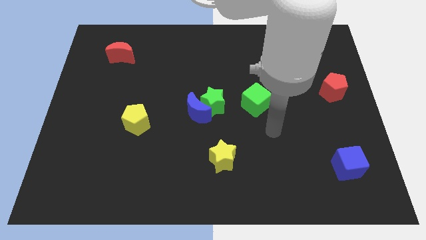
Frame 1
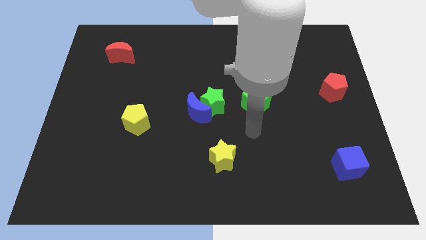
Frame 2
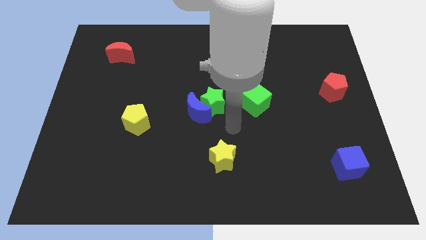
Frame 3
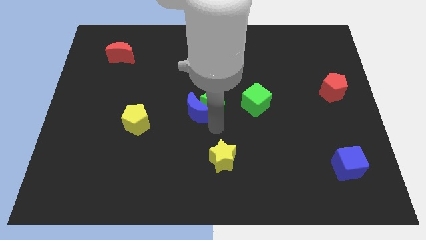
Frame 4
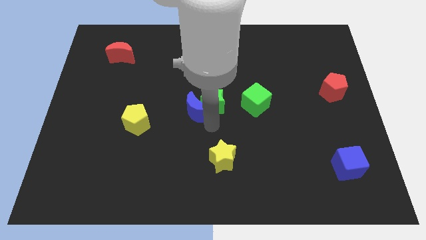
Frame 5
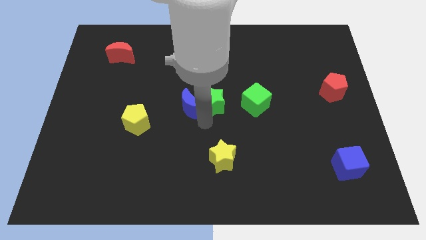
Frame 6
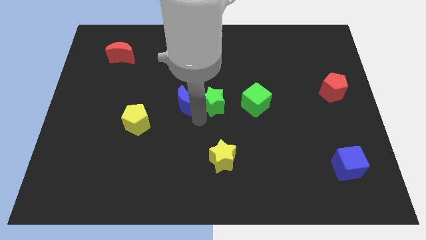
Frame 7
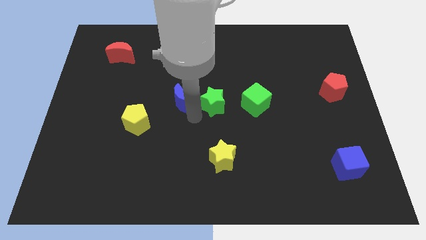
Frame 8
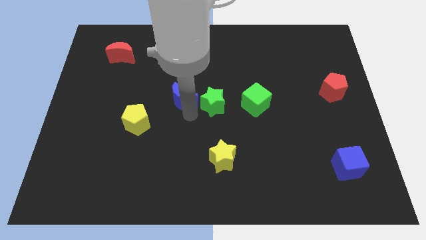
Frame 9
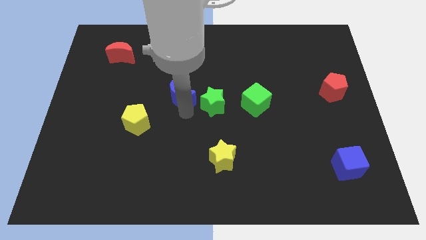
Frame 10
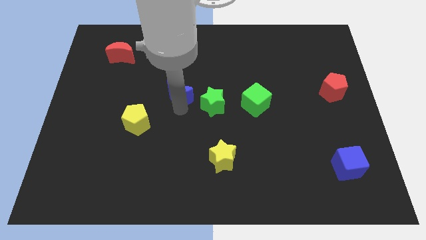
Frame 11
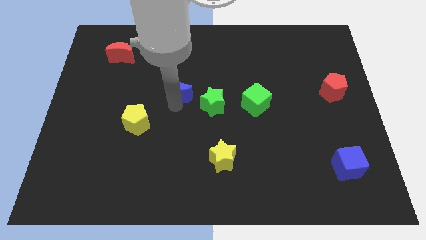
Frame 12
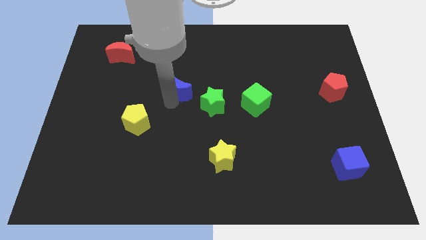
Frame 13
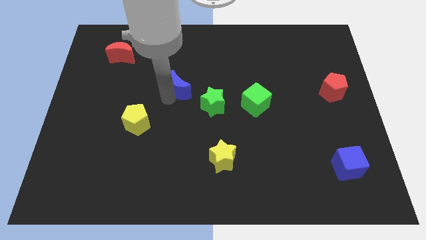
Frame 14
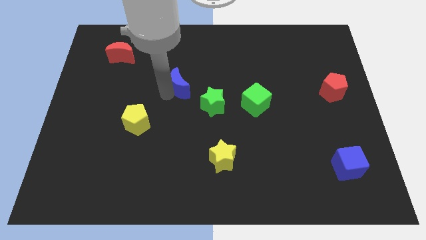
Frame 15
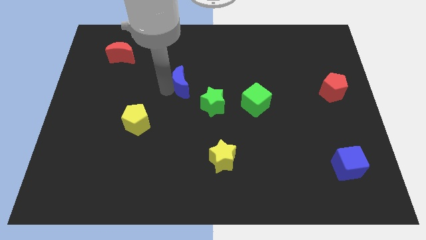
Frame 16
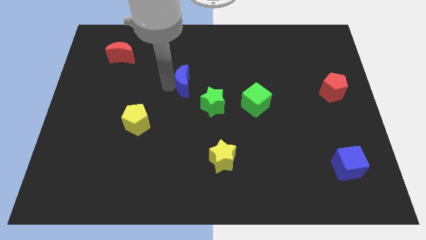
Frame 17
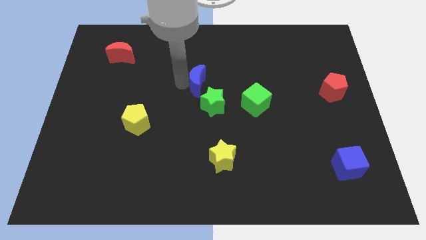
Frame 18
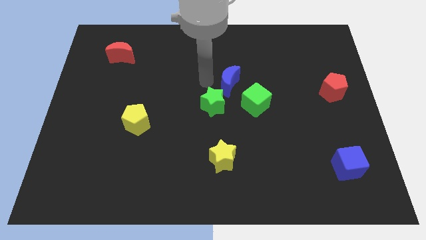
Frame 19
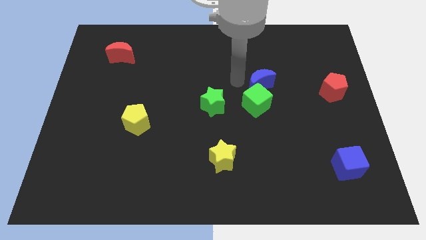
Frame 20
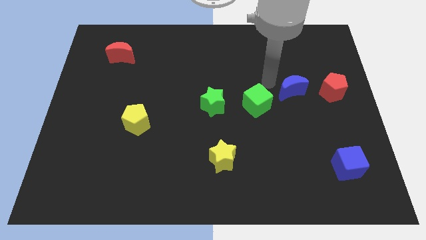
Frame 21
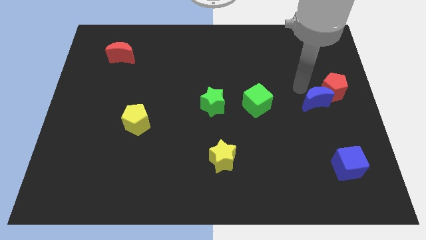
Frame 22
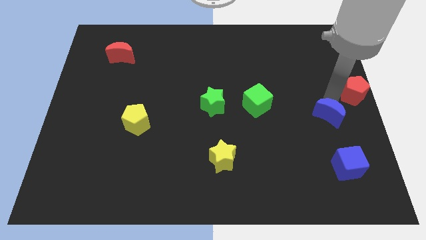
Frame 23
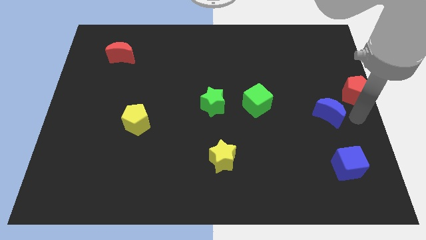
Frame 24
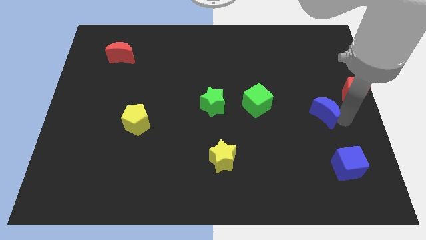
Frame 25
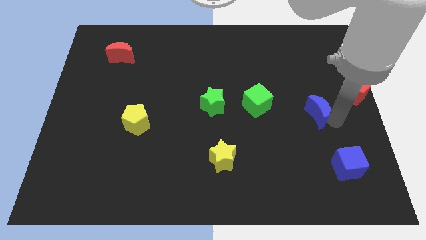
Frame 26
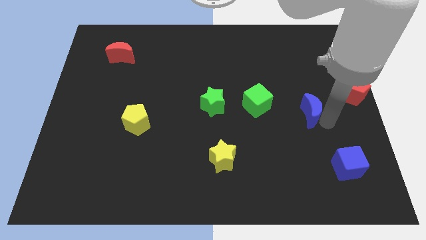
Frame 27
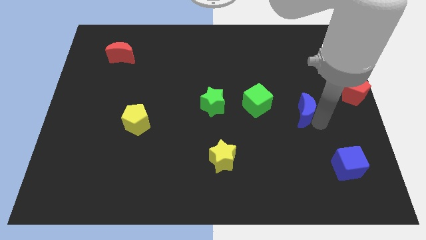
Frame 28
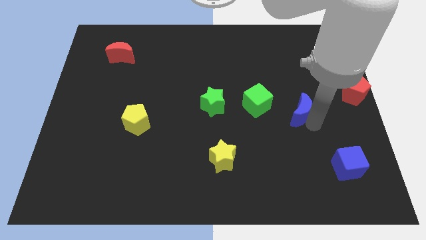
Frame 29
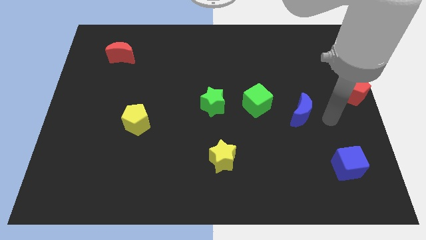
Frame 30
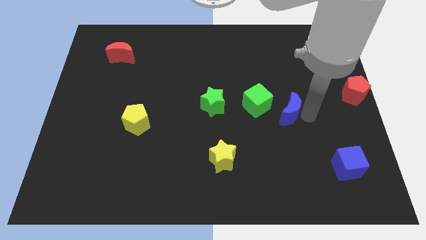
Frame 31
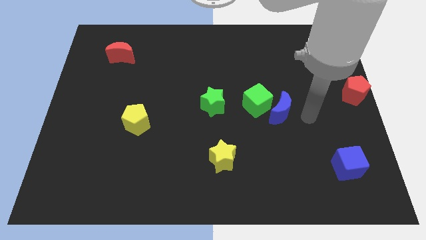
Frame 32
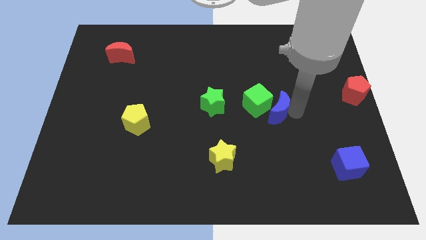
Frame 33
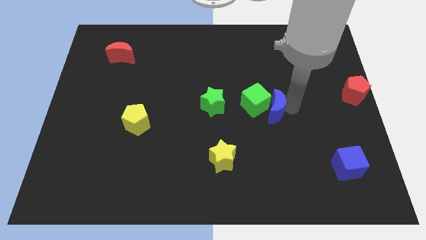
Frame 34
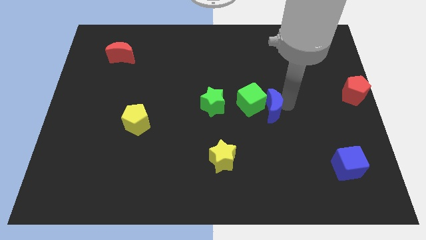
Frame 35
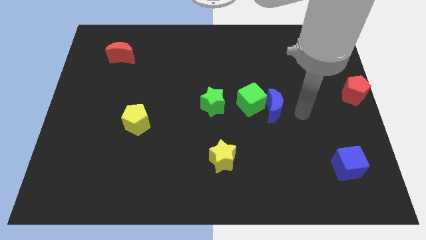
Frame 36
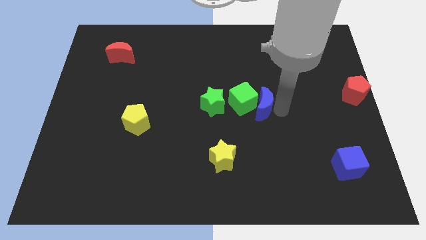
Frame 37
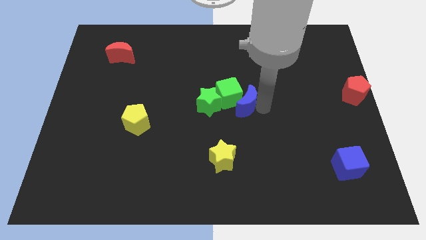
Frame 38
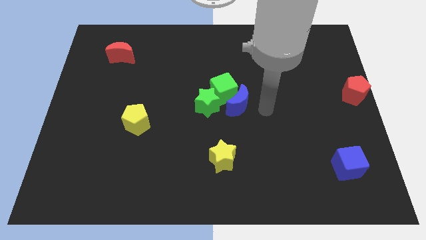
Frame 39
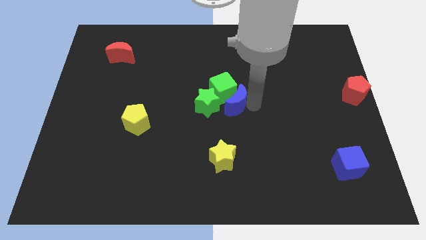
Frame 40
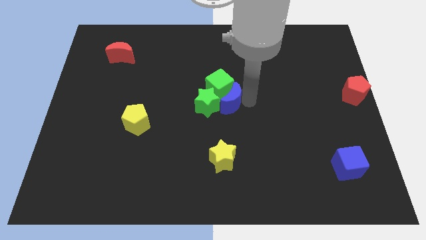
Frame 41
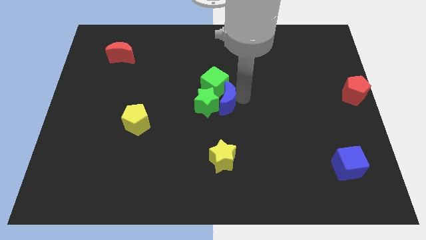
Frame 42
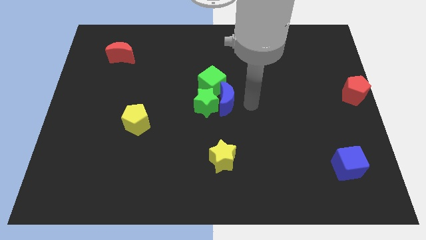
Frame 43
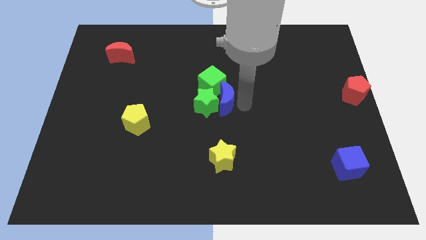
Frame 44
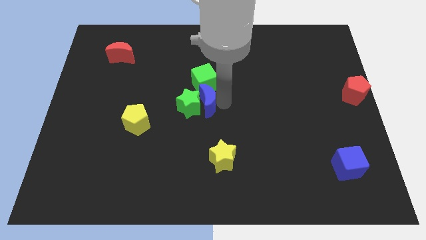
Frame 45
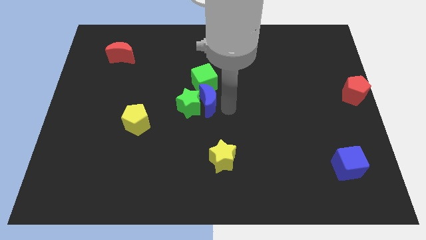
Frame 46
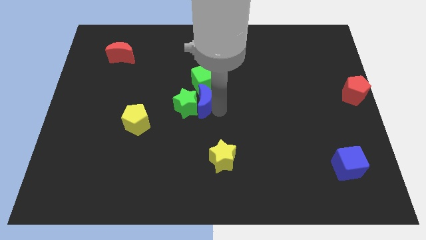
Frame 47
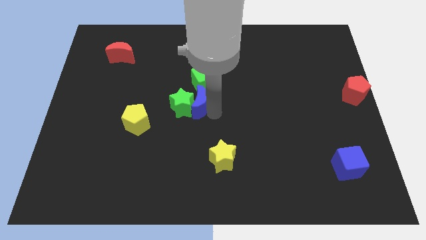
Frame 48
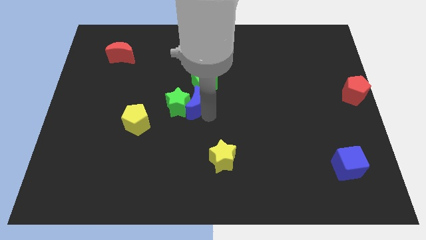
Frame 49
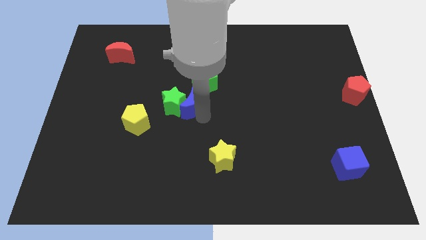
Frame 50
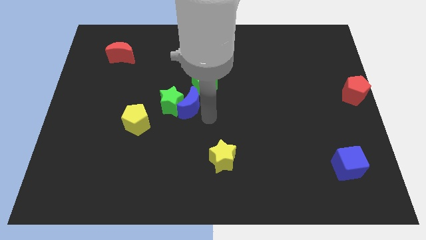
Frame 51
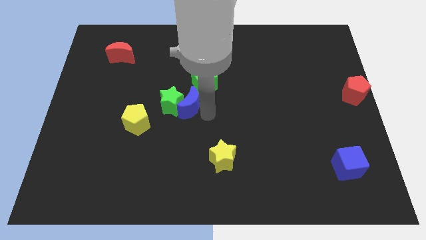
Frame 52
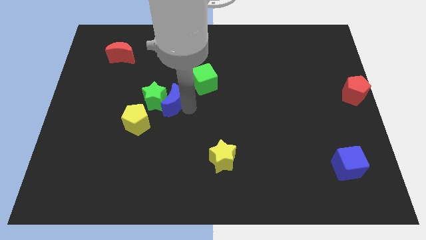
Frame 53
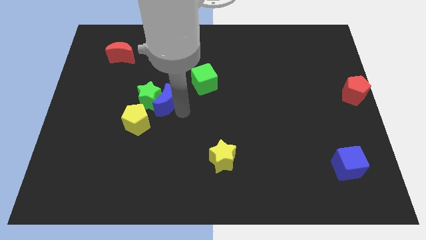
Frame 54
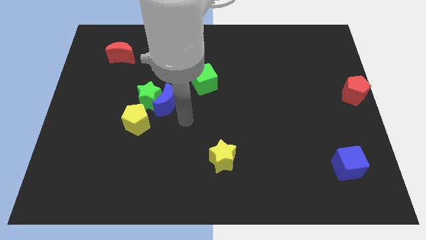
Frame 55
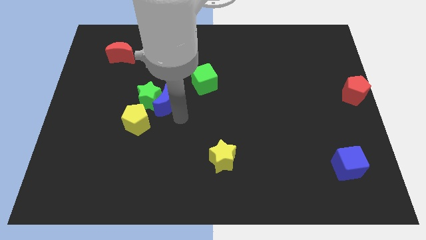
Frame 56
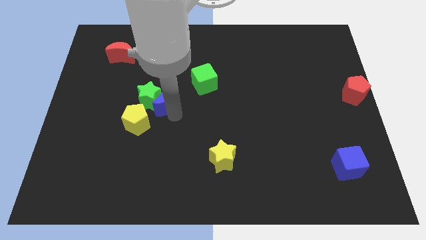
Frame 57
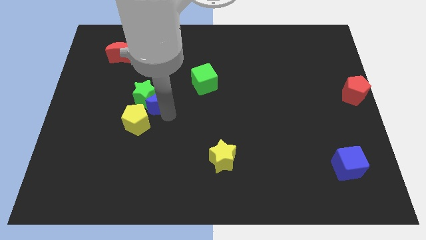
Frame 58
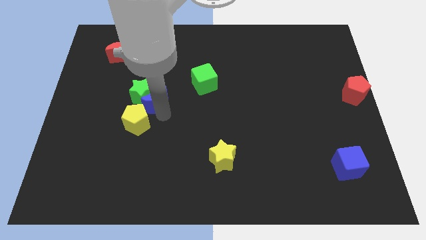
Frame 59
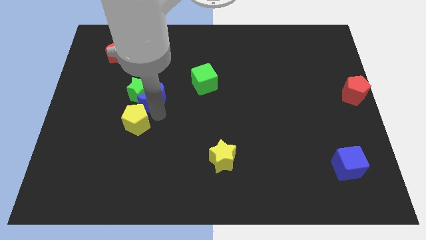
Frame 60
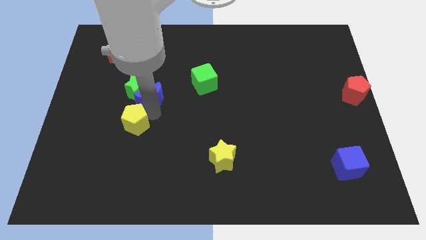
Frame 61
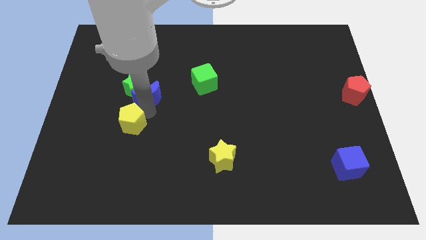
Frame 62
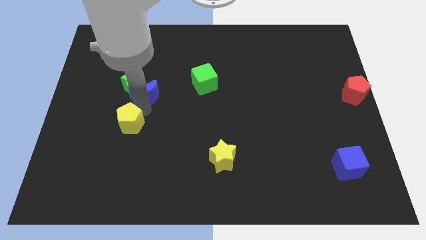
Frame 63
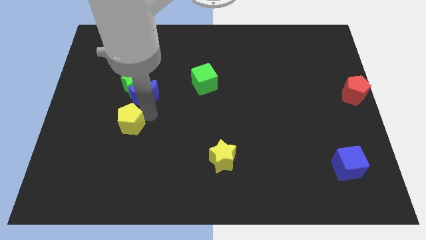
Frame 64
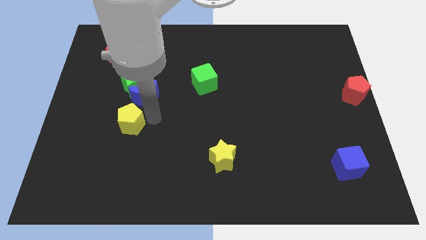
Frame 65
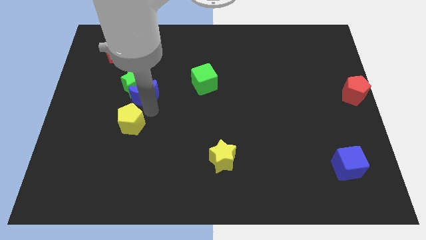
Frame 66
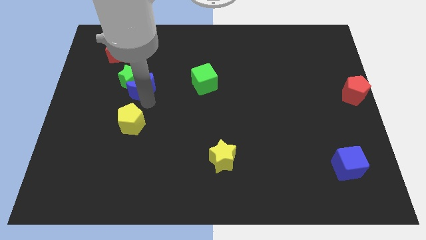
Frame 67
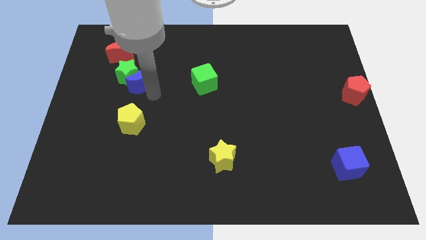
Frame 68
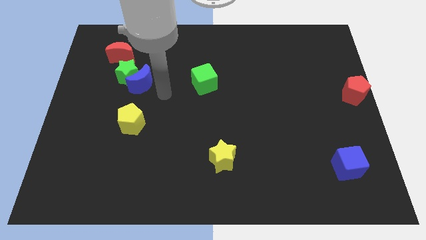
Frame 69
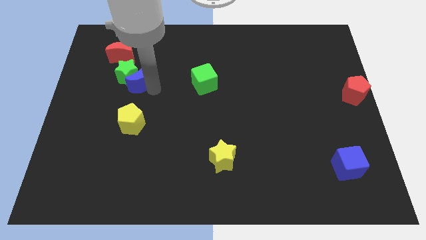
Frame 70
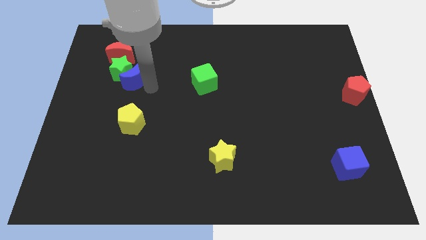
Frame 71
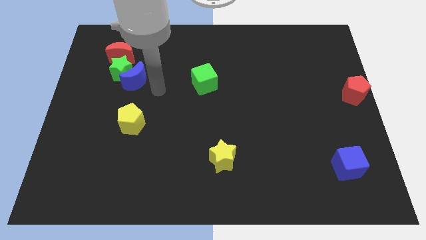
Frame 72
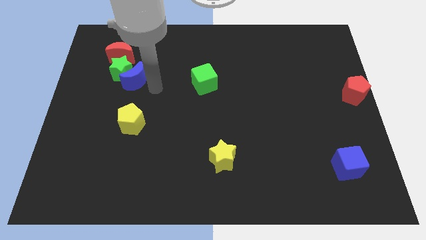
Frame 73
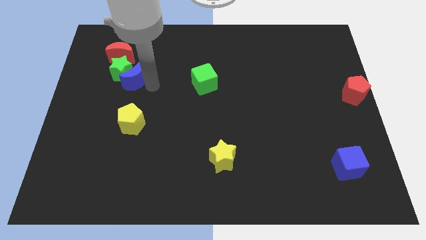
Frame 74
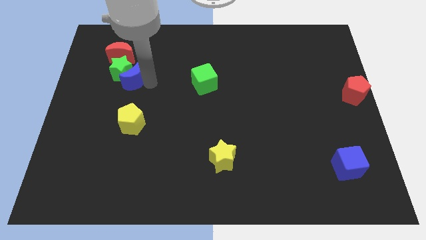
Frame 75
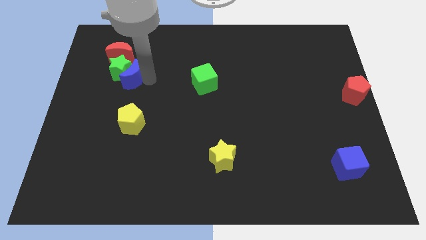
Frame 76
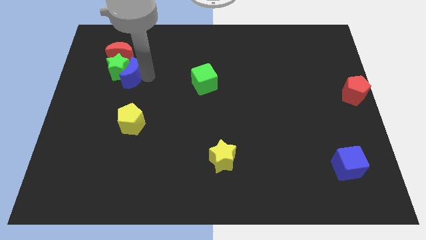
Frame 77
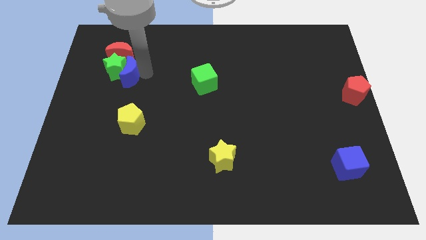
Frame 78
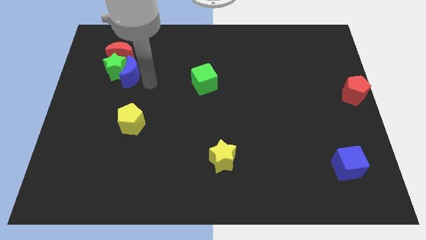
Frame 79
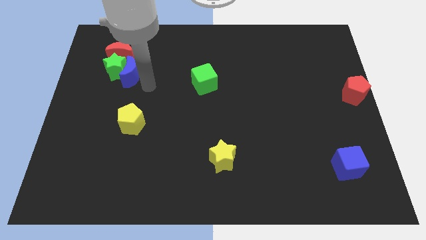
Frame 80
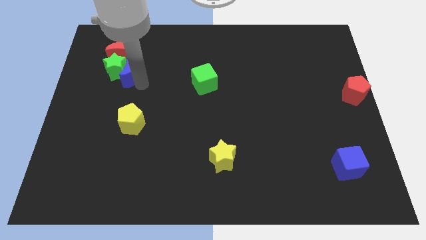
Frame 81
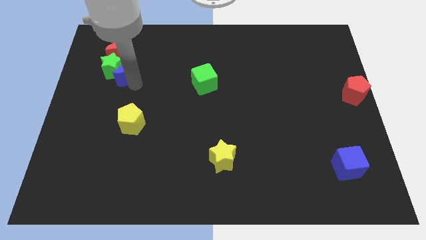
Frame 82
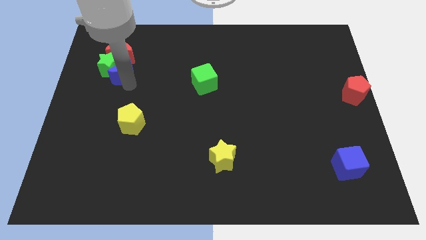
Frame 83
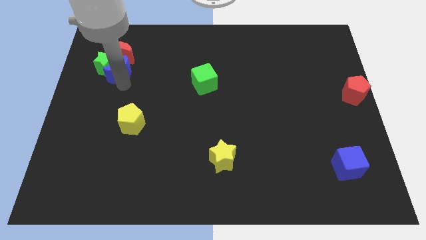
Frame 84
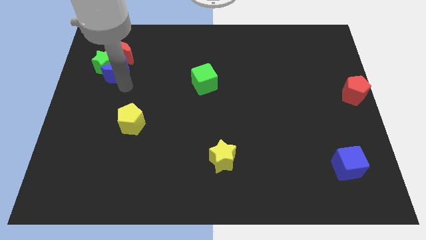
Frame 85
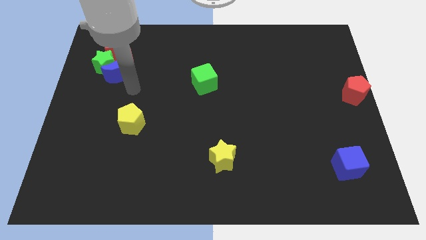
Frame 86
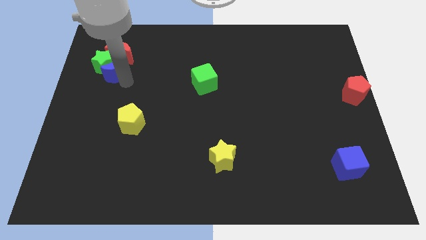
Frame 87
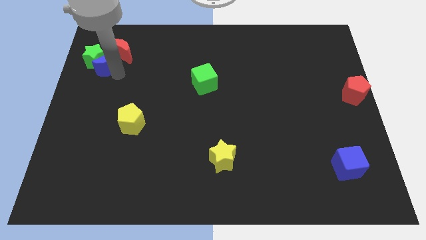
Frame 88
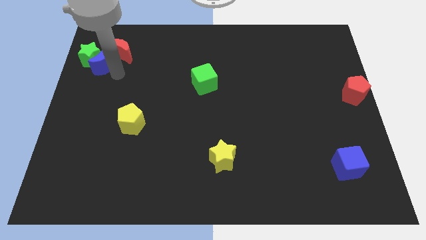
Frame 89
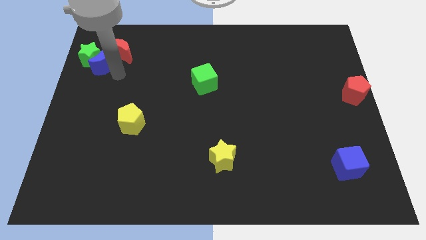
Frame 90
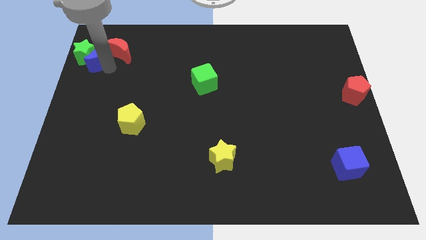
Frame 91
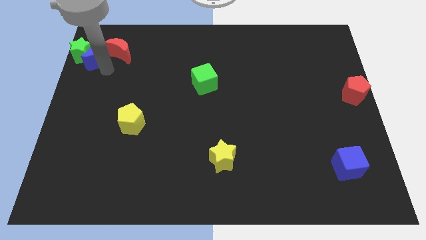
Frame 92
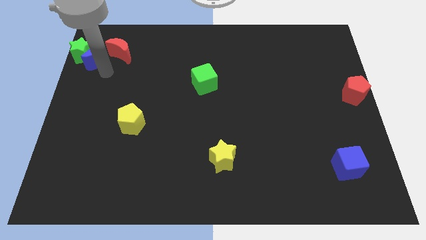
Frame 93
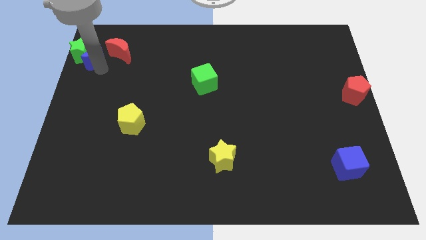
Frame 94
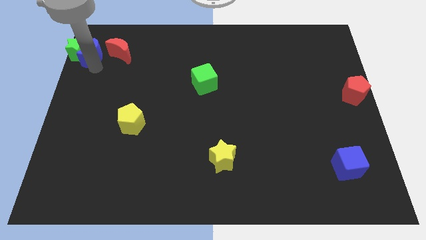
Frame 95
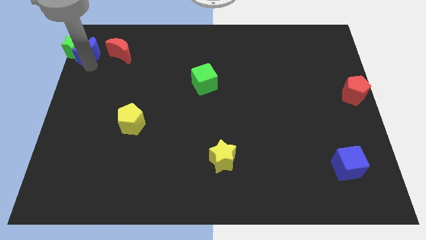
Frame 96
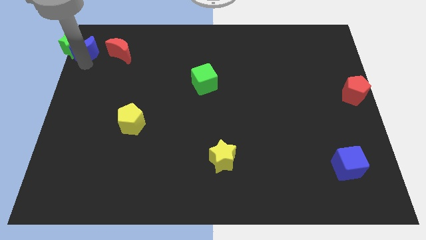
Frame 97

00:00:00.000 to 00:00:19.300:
slide the blue moon to the top left corner
